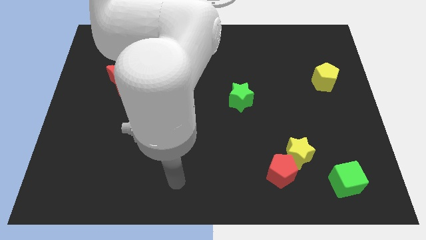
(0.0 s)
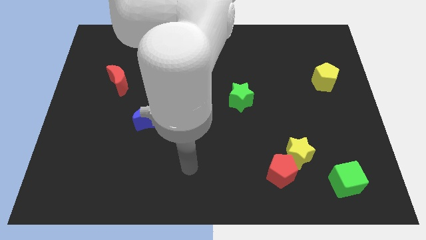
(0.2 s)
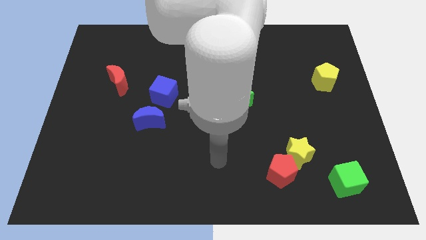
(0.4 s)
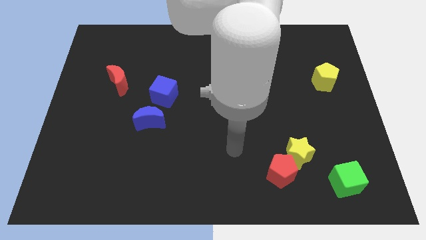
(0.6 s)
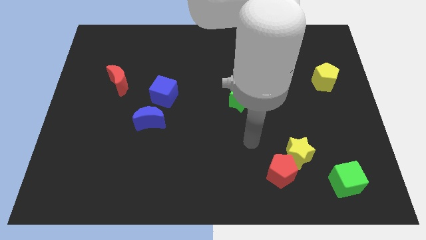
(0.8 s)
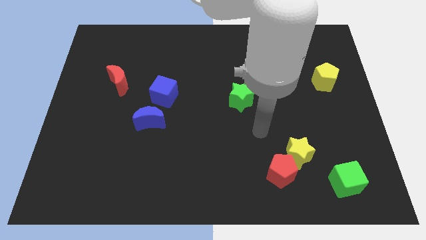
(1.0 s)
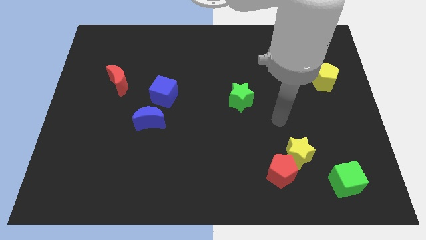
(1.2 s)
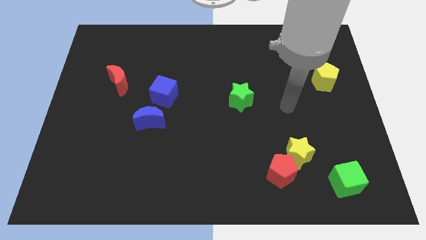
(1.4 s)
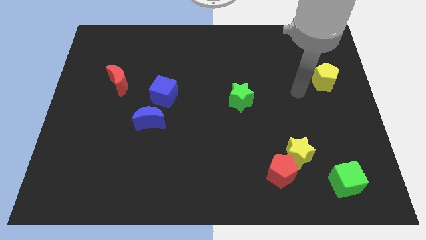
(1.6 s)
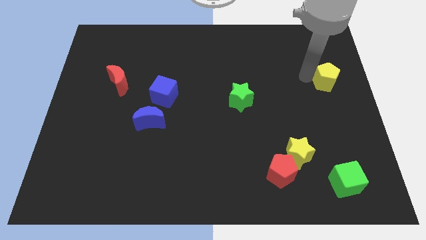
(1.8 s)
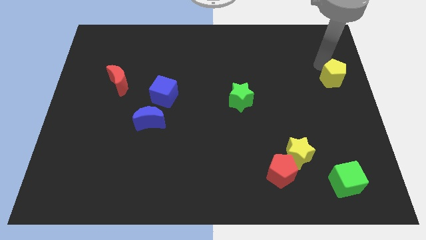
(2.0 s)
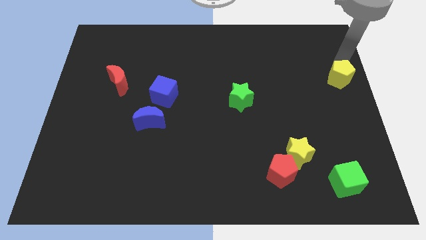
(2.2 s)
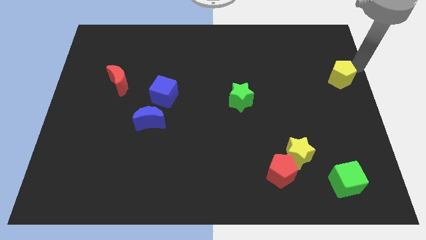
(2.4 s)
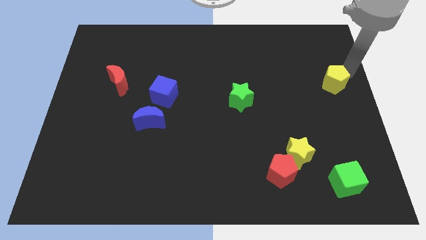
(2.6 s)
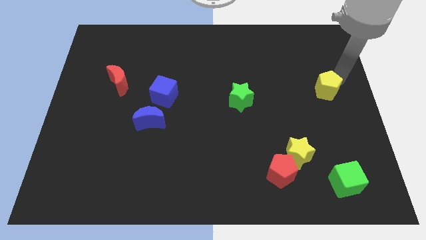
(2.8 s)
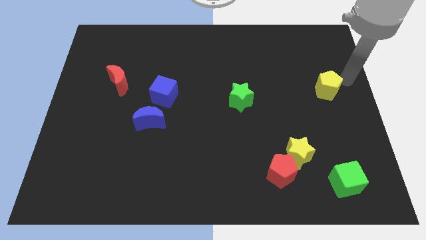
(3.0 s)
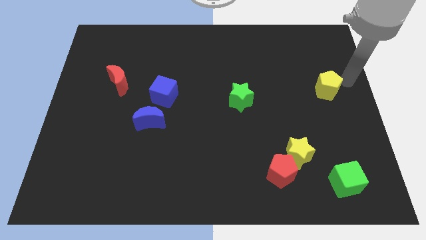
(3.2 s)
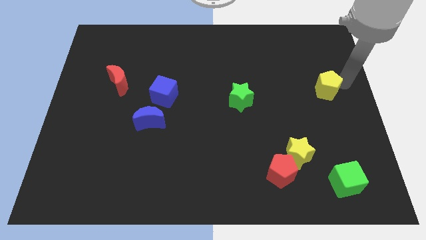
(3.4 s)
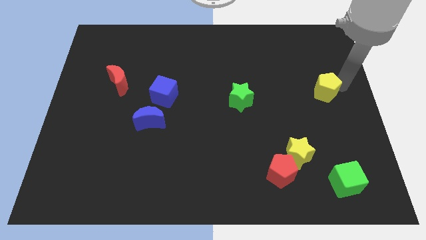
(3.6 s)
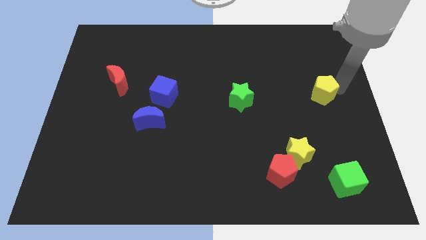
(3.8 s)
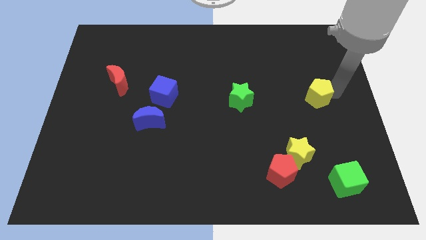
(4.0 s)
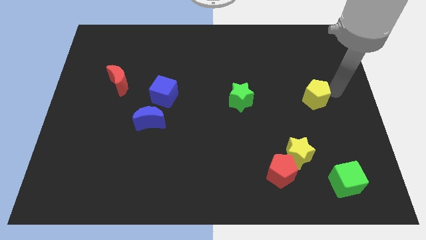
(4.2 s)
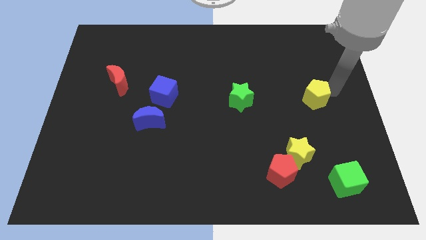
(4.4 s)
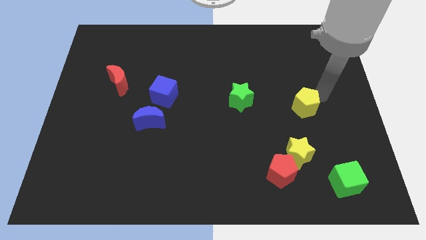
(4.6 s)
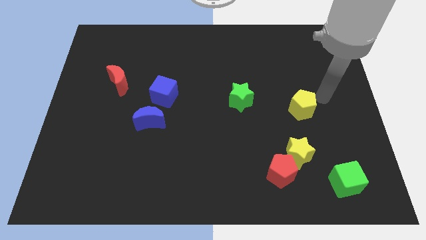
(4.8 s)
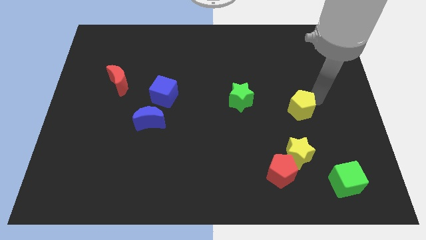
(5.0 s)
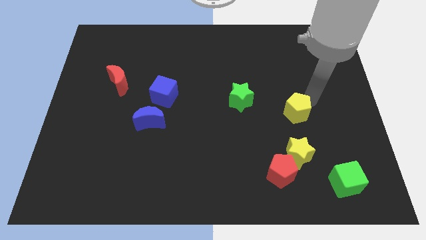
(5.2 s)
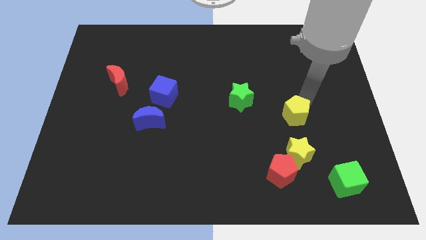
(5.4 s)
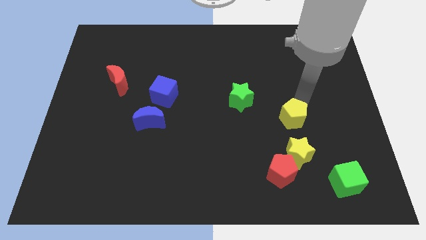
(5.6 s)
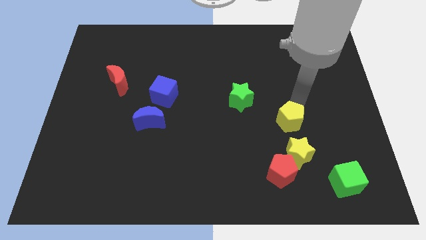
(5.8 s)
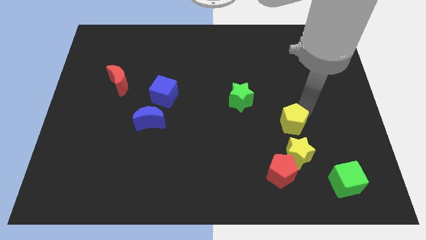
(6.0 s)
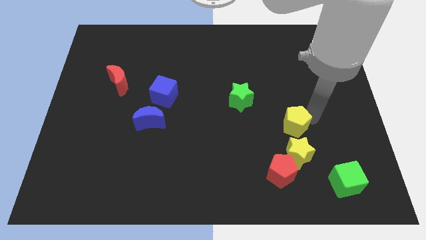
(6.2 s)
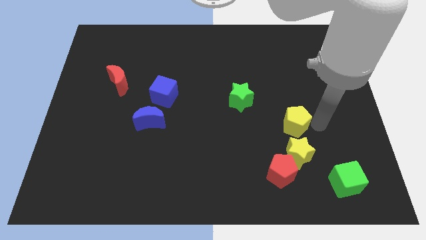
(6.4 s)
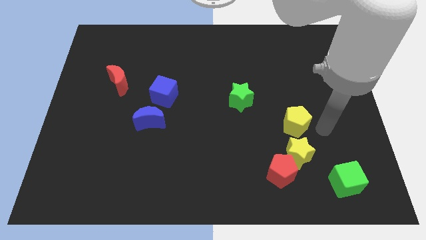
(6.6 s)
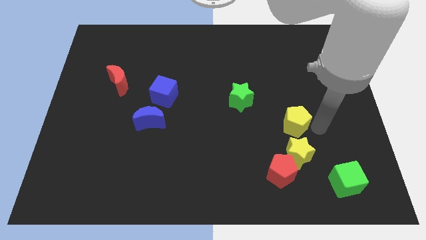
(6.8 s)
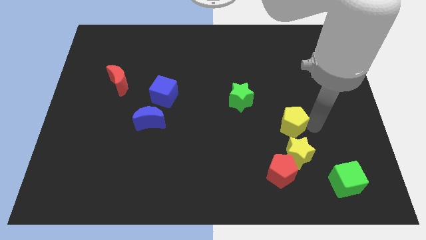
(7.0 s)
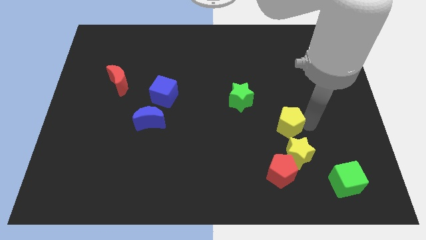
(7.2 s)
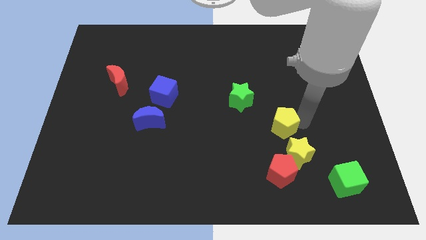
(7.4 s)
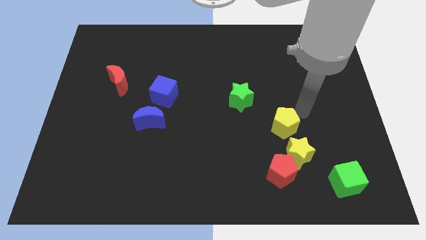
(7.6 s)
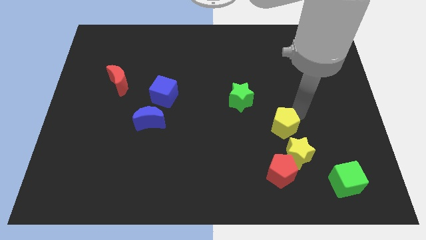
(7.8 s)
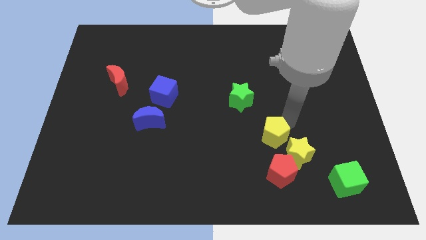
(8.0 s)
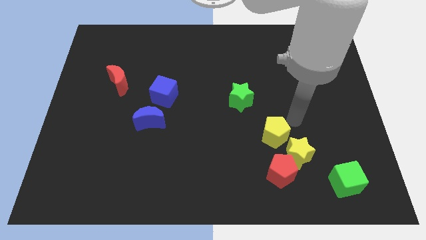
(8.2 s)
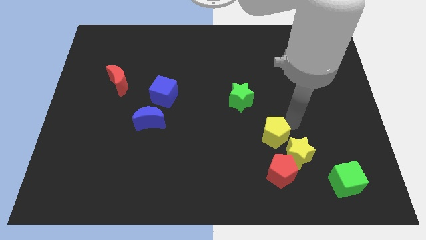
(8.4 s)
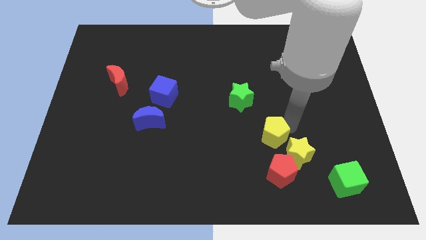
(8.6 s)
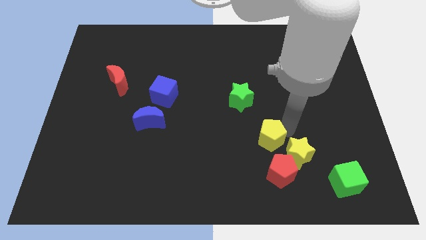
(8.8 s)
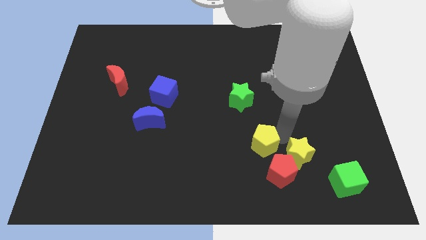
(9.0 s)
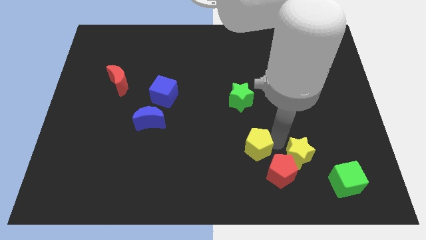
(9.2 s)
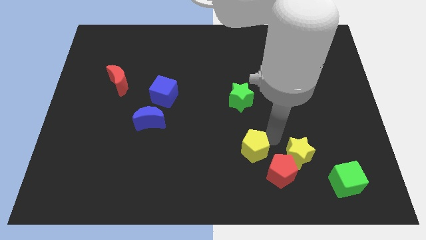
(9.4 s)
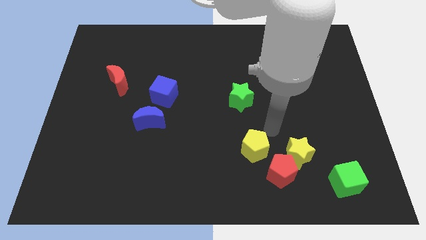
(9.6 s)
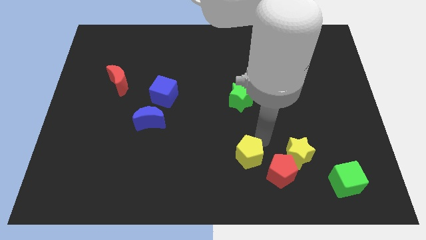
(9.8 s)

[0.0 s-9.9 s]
put the yellow pentagon to the left side of the red pentagon

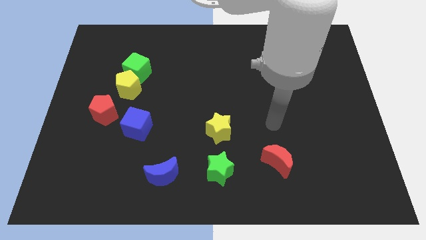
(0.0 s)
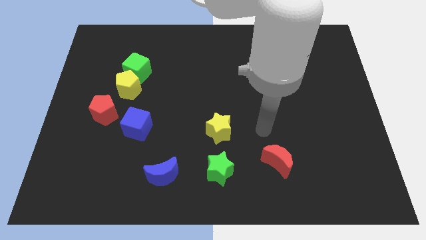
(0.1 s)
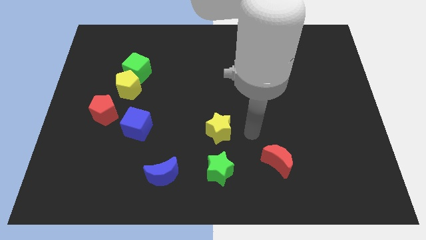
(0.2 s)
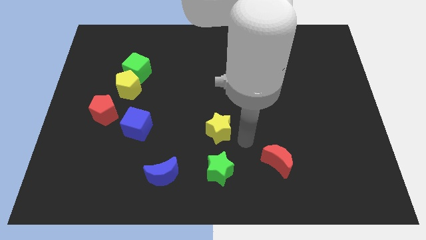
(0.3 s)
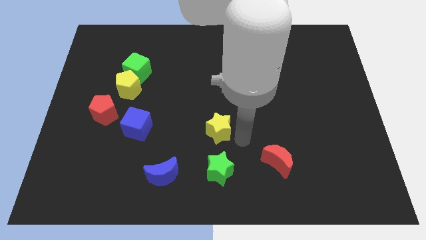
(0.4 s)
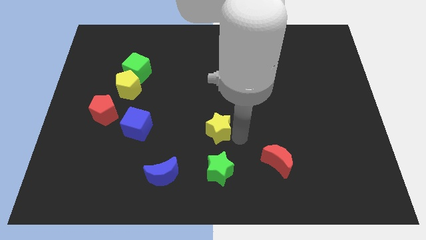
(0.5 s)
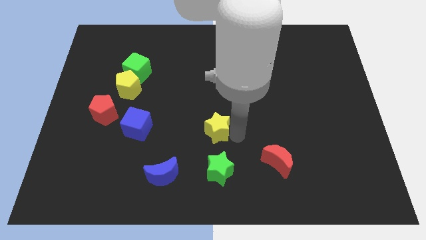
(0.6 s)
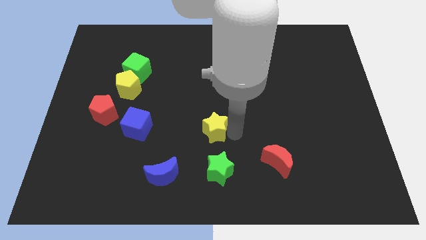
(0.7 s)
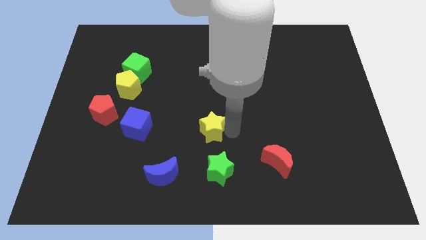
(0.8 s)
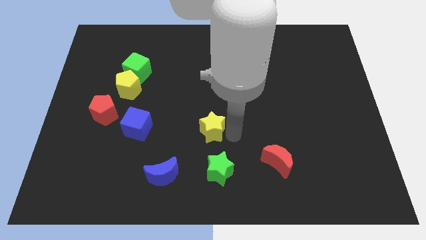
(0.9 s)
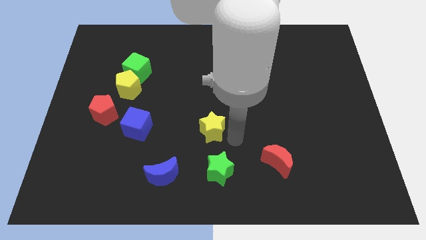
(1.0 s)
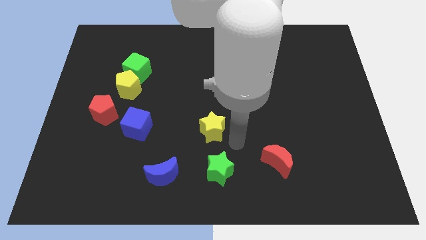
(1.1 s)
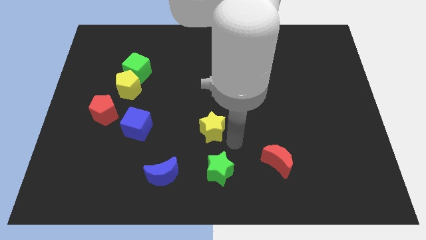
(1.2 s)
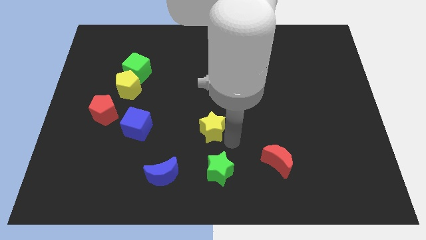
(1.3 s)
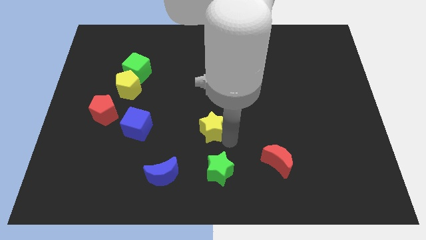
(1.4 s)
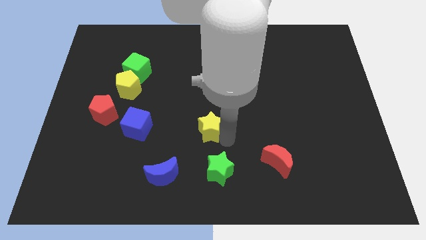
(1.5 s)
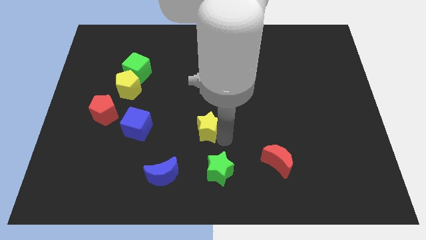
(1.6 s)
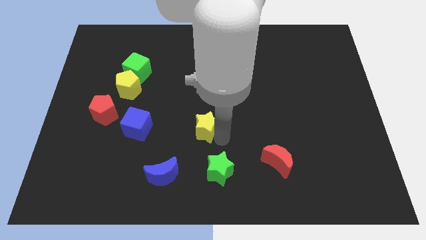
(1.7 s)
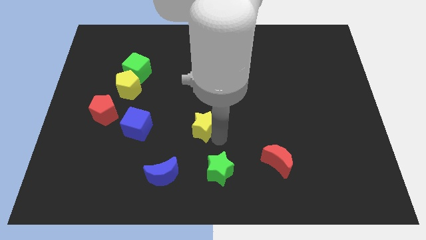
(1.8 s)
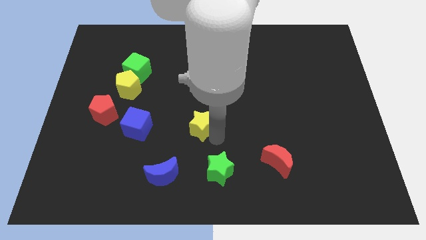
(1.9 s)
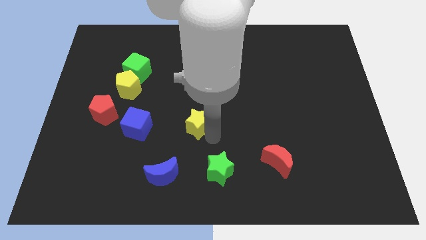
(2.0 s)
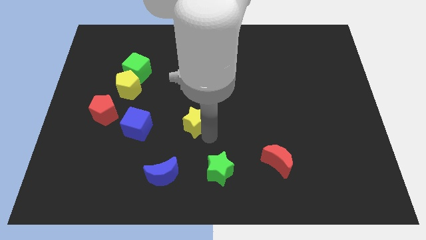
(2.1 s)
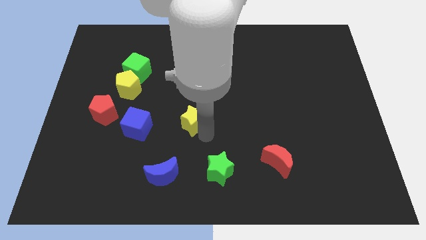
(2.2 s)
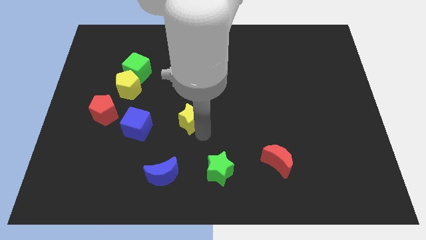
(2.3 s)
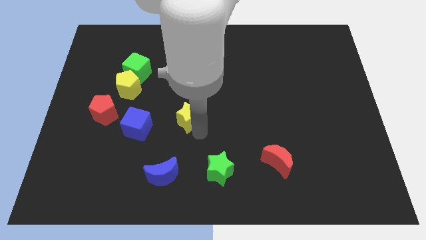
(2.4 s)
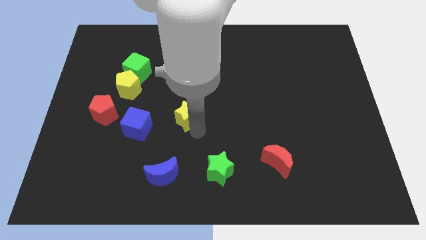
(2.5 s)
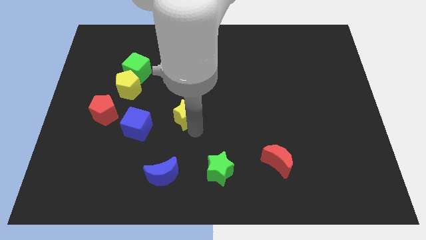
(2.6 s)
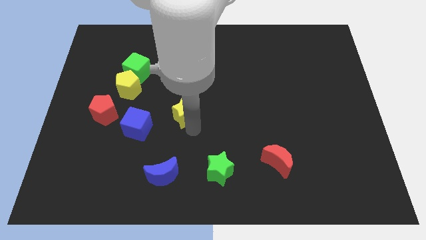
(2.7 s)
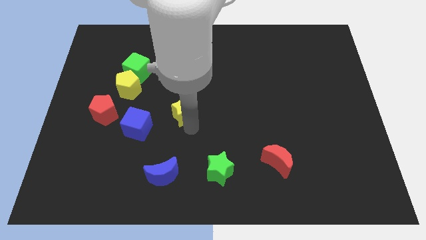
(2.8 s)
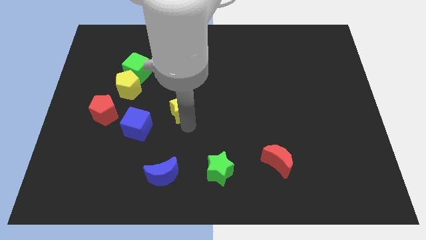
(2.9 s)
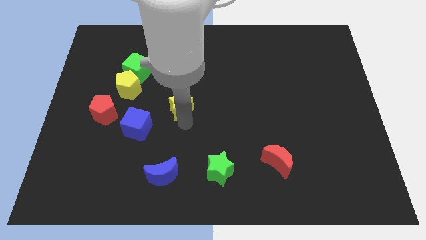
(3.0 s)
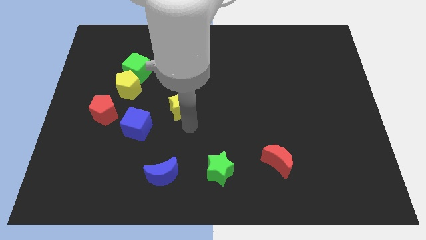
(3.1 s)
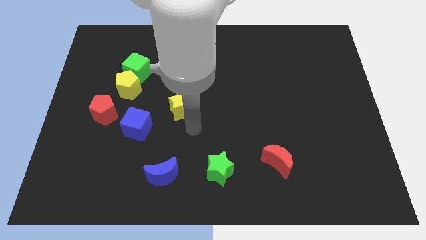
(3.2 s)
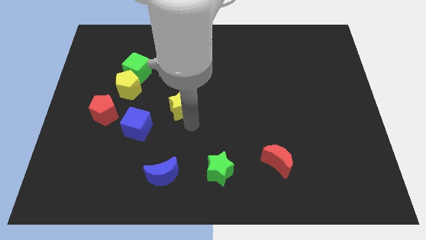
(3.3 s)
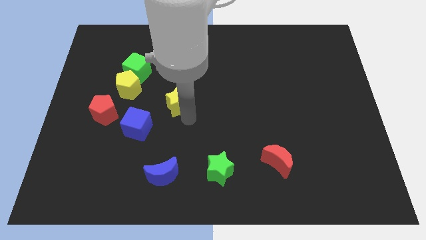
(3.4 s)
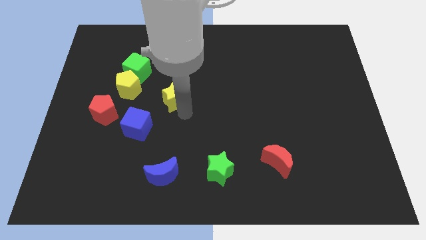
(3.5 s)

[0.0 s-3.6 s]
move the yellow star to the right side of the yellow pentagon
